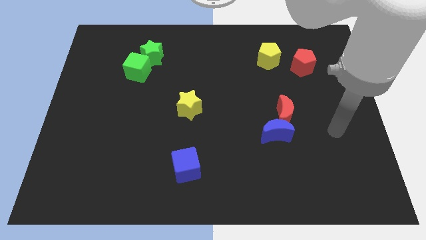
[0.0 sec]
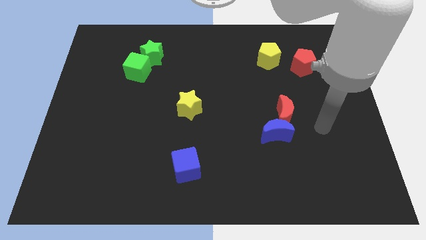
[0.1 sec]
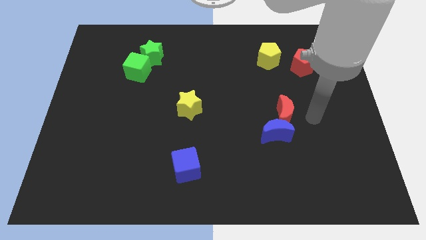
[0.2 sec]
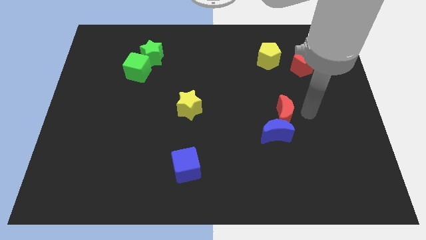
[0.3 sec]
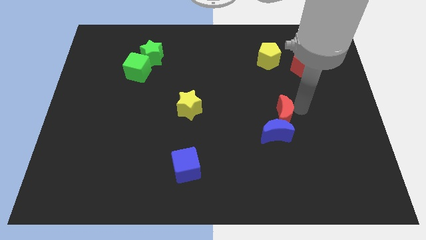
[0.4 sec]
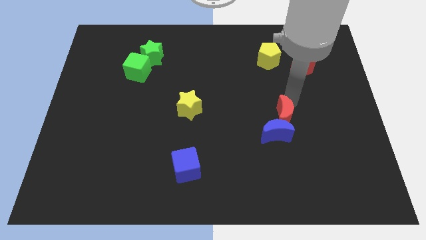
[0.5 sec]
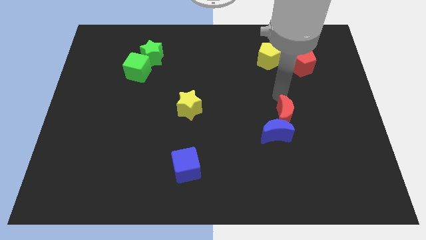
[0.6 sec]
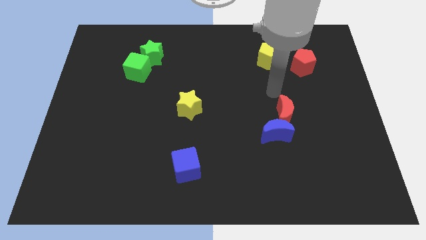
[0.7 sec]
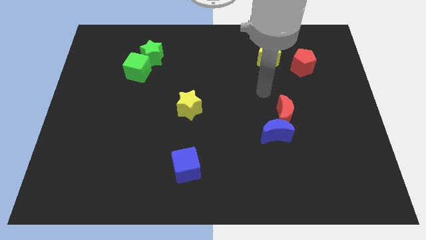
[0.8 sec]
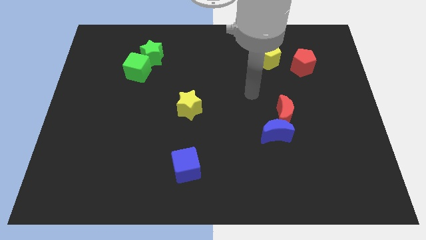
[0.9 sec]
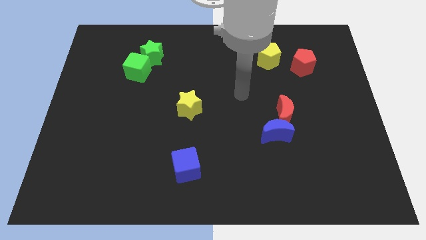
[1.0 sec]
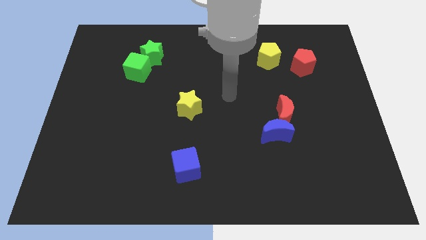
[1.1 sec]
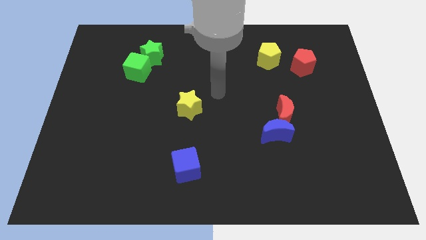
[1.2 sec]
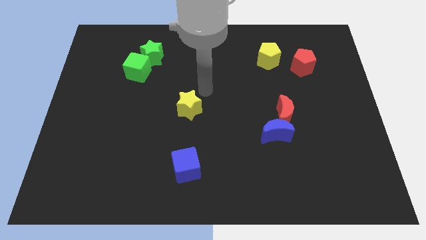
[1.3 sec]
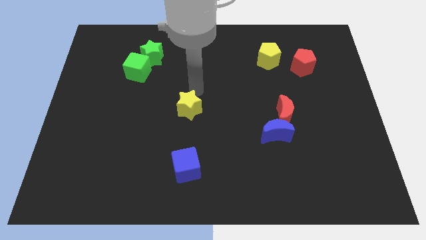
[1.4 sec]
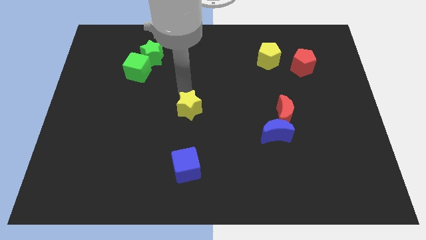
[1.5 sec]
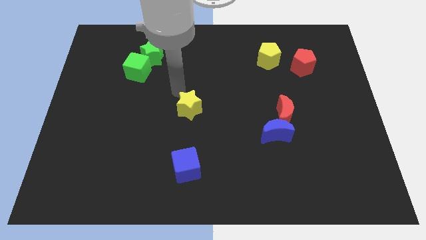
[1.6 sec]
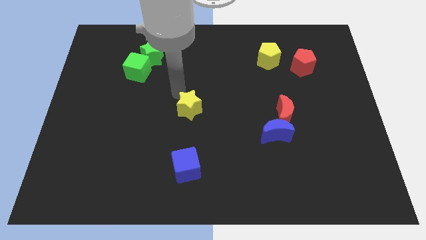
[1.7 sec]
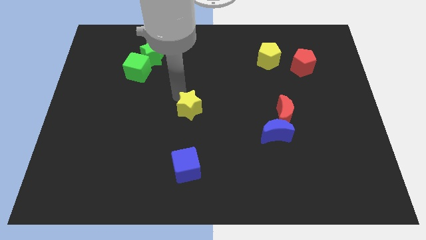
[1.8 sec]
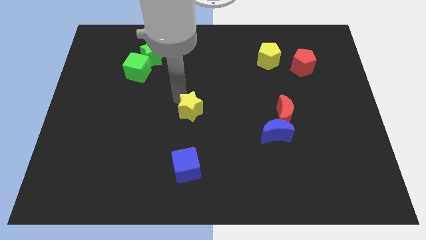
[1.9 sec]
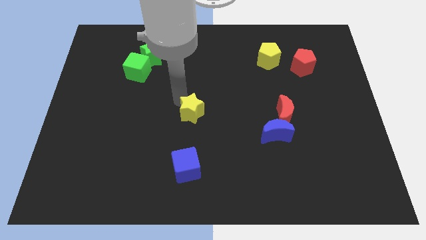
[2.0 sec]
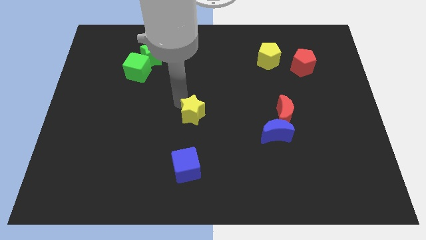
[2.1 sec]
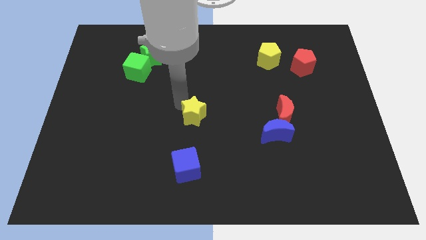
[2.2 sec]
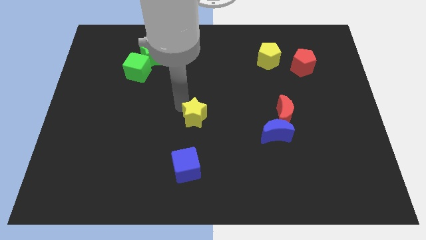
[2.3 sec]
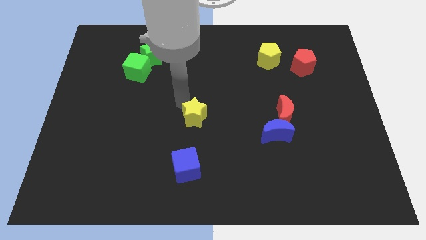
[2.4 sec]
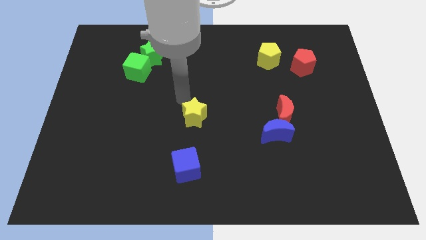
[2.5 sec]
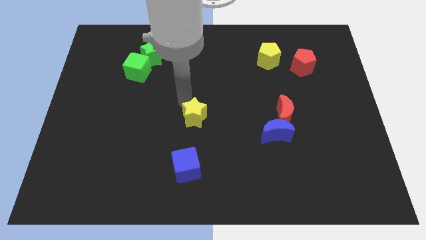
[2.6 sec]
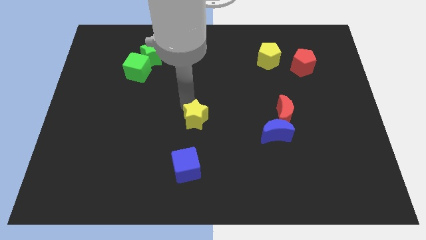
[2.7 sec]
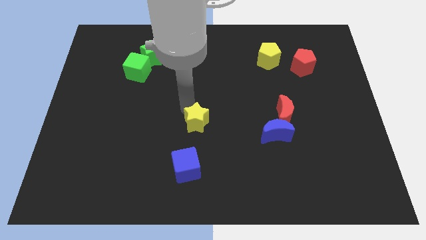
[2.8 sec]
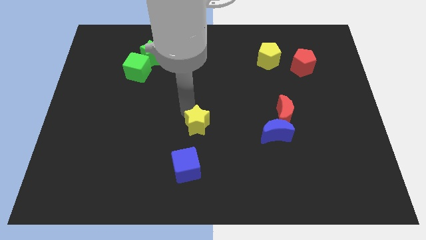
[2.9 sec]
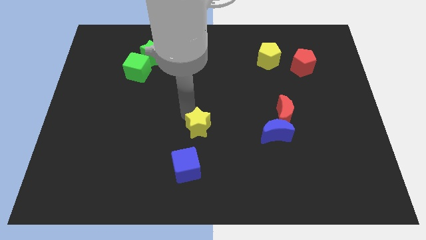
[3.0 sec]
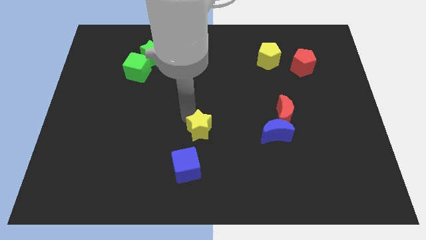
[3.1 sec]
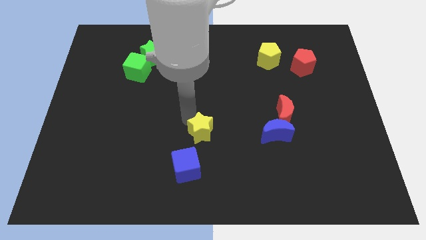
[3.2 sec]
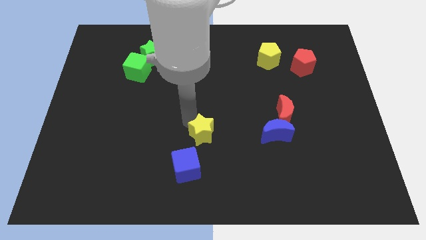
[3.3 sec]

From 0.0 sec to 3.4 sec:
push the yellow star down and right a bit

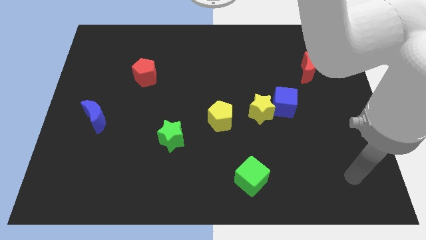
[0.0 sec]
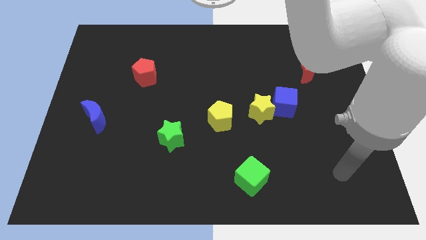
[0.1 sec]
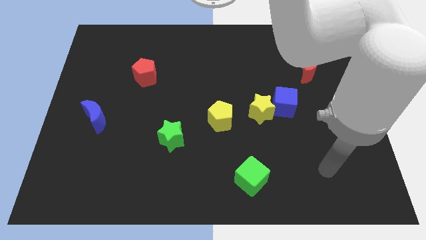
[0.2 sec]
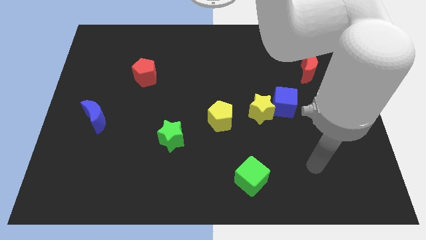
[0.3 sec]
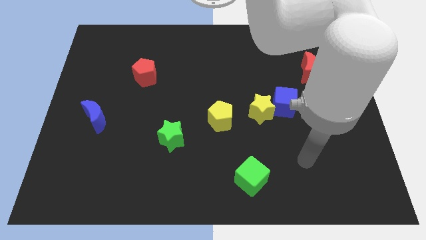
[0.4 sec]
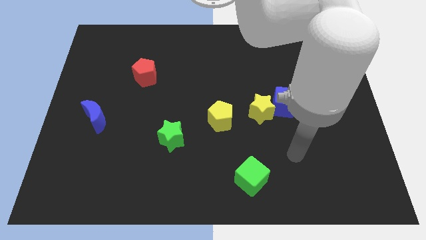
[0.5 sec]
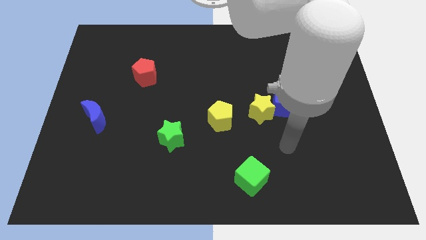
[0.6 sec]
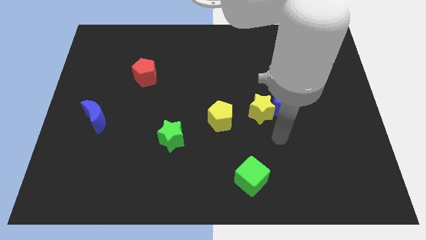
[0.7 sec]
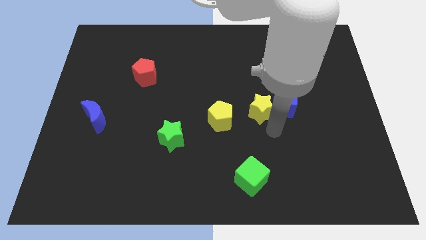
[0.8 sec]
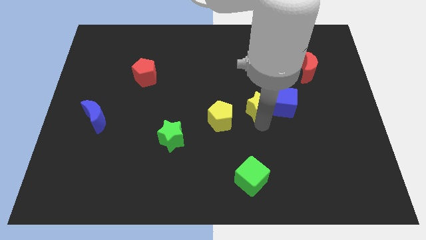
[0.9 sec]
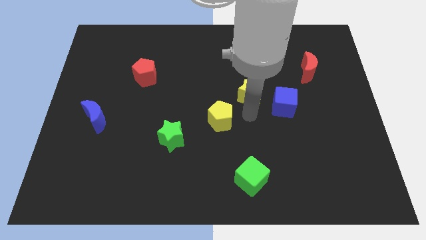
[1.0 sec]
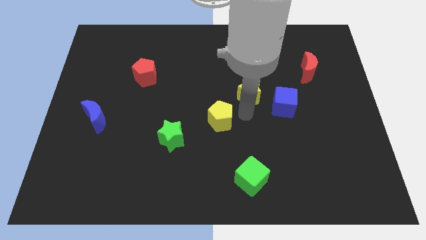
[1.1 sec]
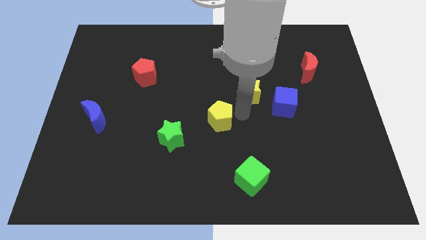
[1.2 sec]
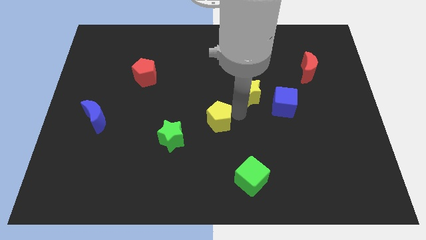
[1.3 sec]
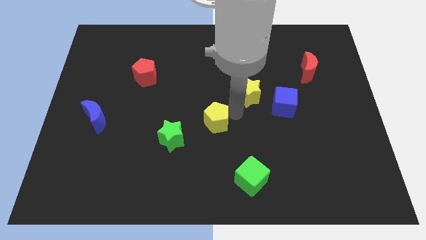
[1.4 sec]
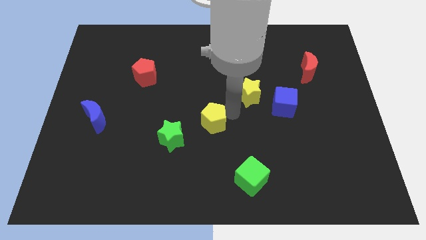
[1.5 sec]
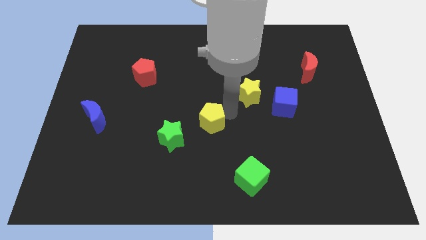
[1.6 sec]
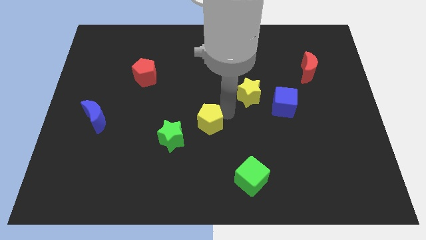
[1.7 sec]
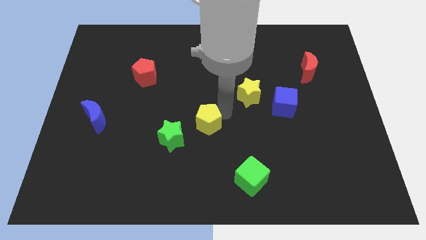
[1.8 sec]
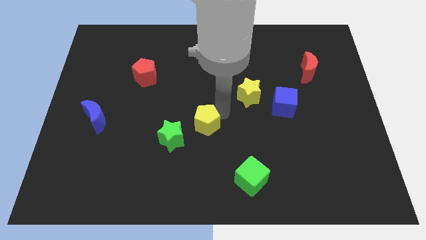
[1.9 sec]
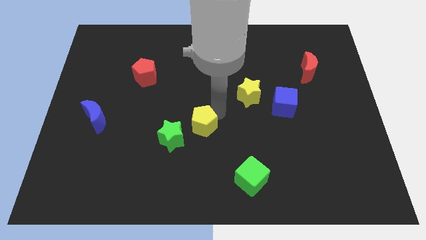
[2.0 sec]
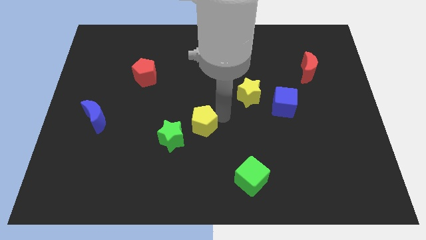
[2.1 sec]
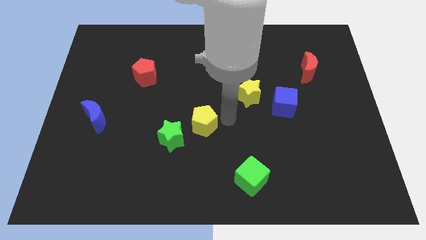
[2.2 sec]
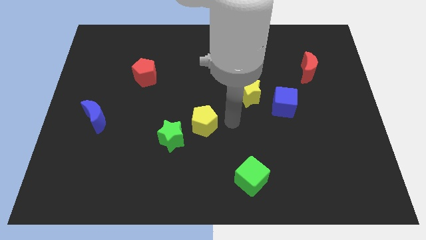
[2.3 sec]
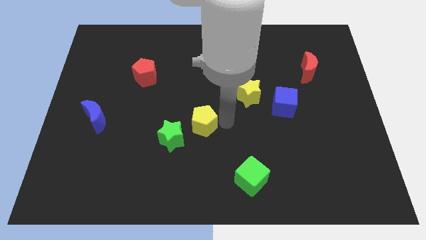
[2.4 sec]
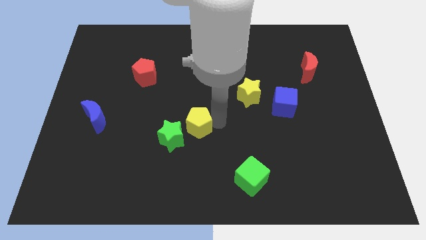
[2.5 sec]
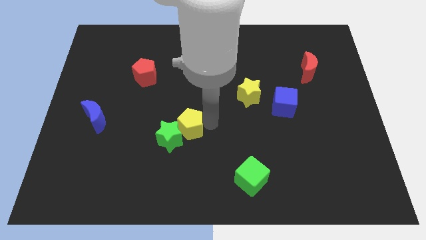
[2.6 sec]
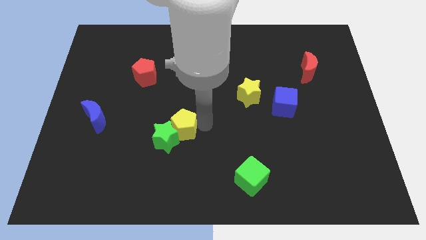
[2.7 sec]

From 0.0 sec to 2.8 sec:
slightly move the yellow pentagon to the left

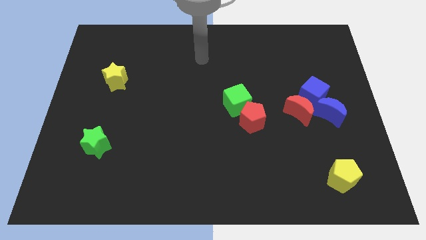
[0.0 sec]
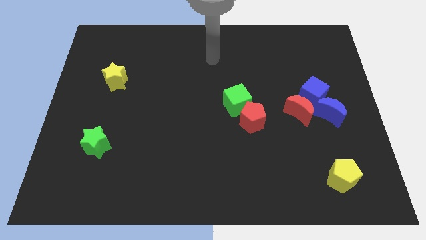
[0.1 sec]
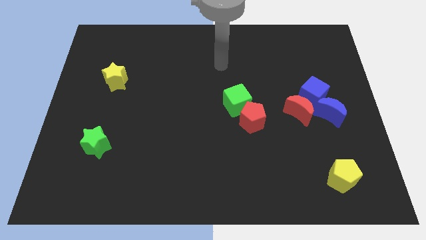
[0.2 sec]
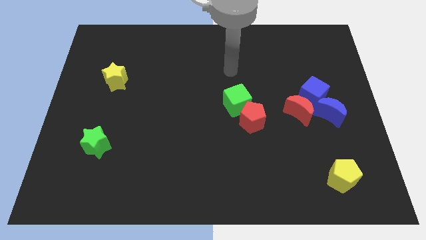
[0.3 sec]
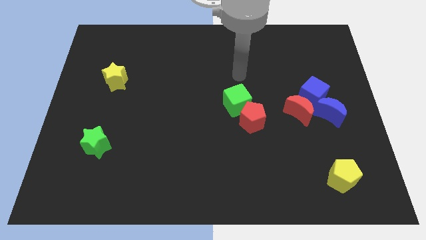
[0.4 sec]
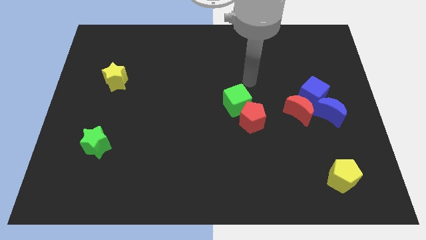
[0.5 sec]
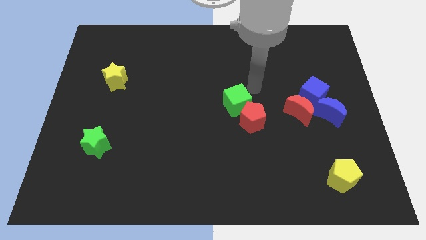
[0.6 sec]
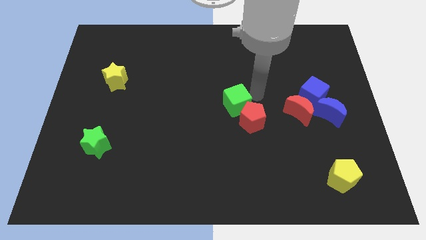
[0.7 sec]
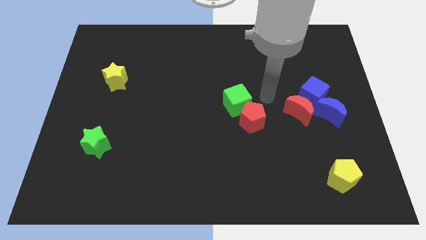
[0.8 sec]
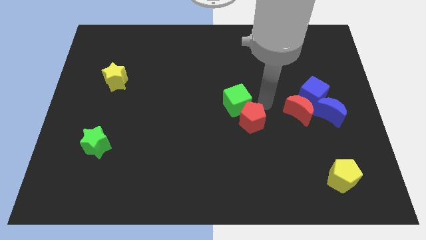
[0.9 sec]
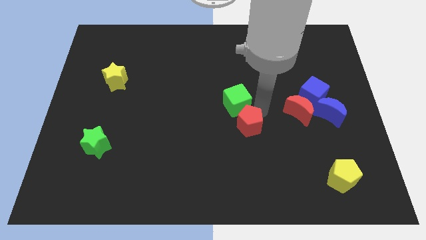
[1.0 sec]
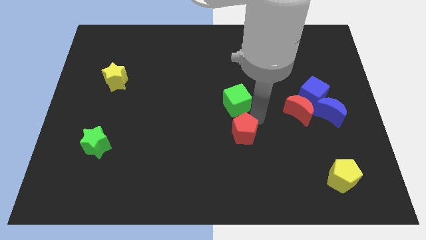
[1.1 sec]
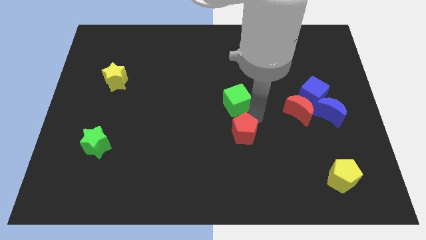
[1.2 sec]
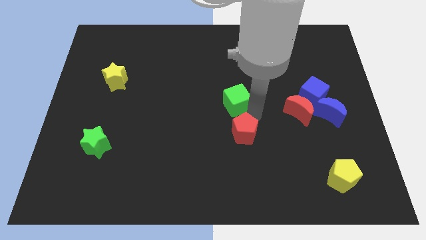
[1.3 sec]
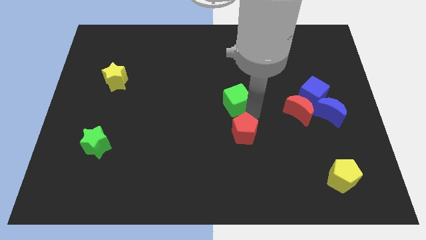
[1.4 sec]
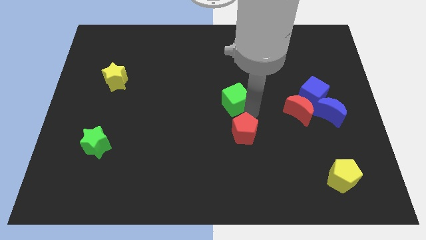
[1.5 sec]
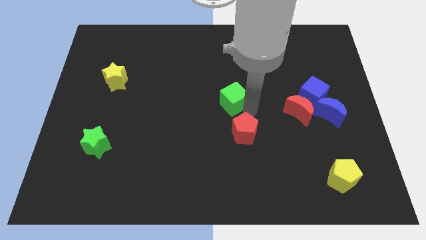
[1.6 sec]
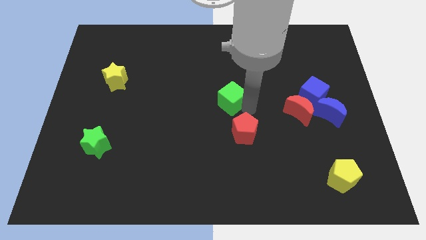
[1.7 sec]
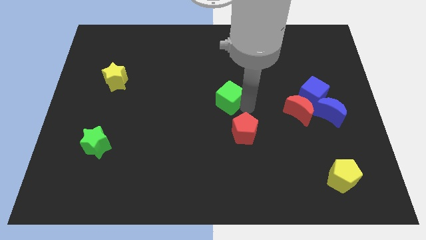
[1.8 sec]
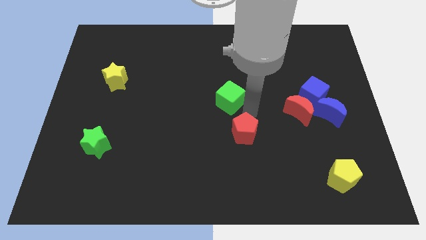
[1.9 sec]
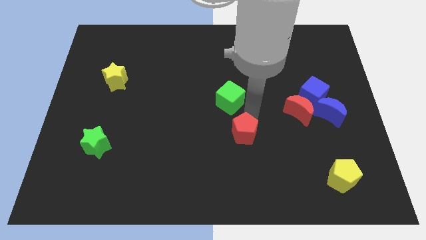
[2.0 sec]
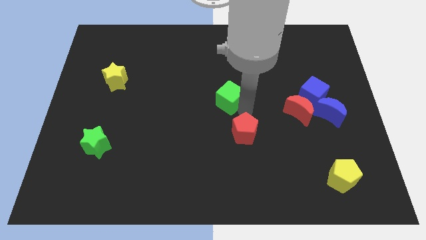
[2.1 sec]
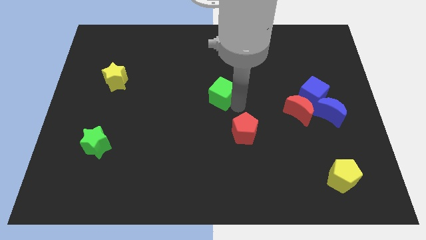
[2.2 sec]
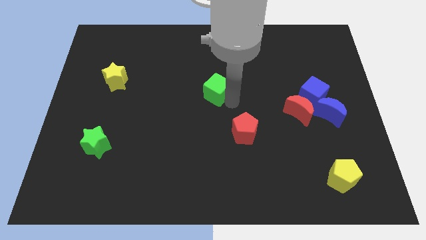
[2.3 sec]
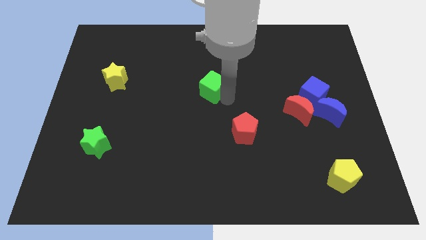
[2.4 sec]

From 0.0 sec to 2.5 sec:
slightly slide the green cube up and to the left diagonally
